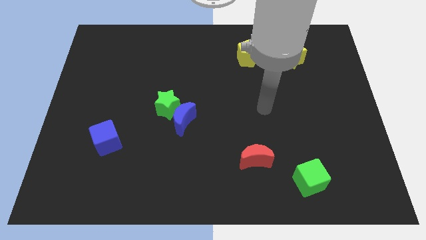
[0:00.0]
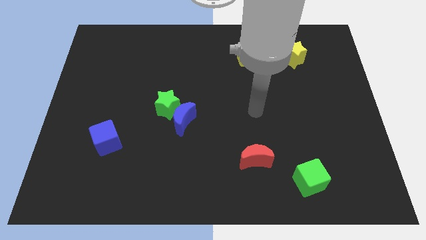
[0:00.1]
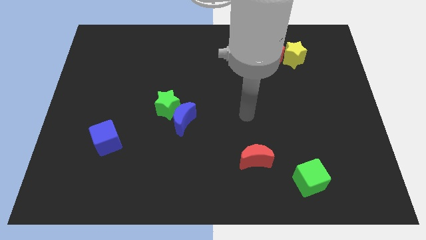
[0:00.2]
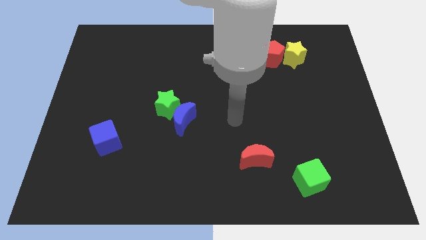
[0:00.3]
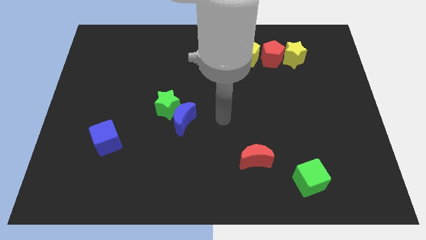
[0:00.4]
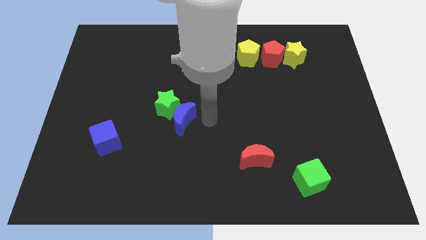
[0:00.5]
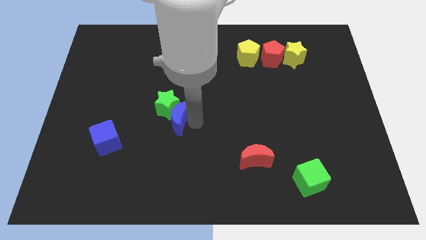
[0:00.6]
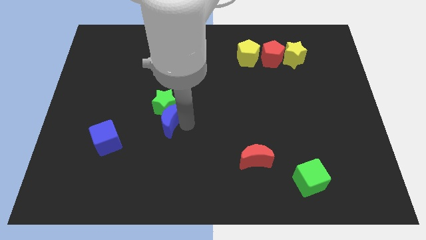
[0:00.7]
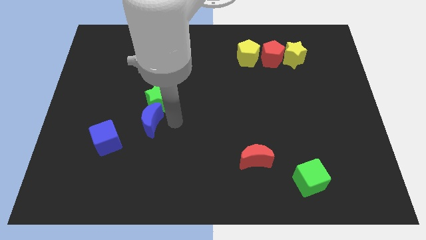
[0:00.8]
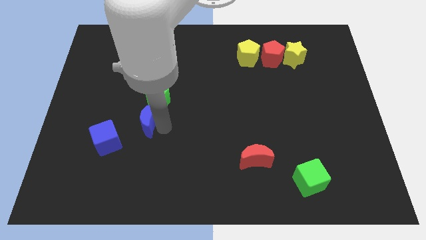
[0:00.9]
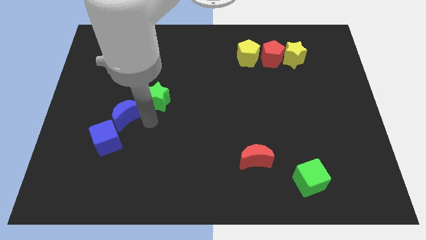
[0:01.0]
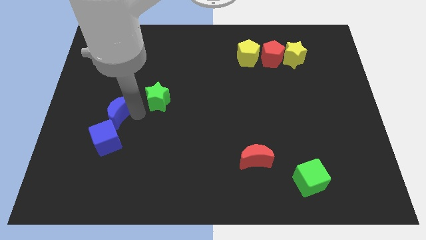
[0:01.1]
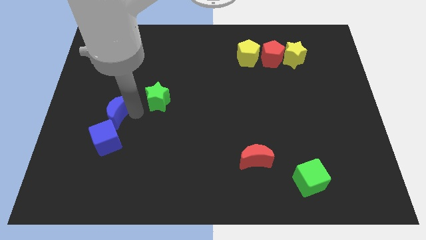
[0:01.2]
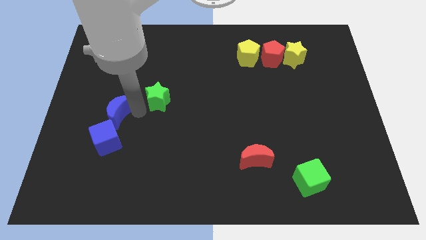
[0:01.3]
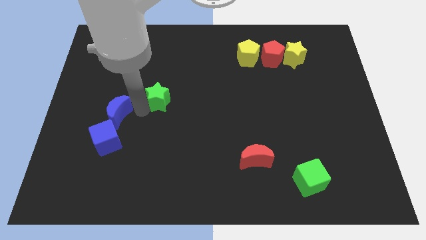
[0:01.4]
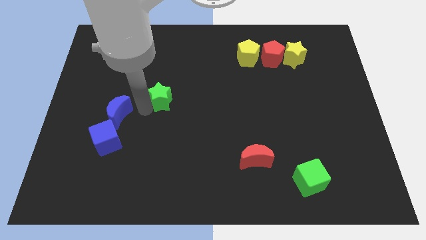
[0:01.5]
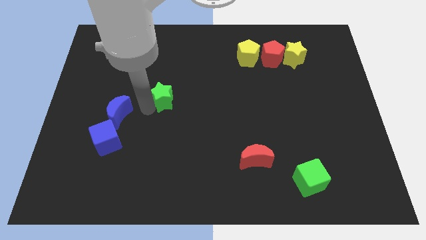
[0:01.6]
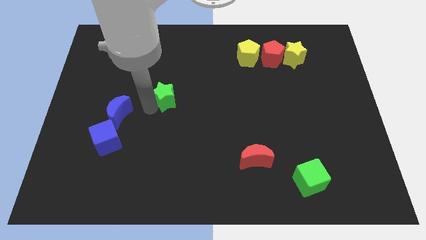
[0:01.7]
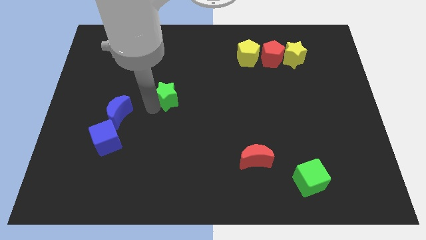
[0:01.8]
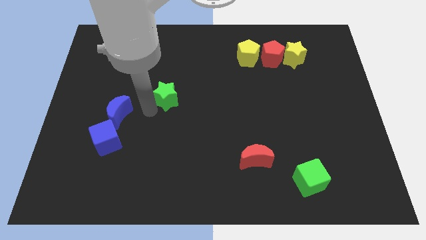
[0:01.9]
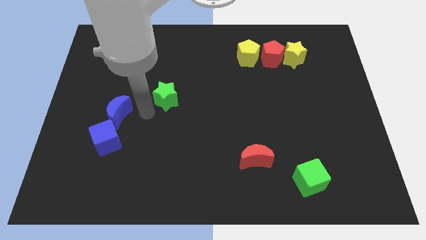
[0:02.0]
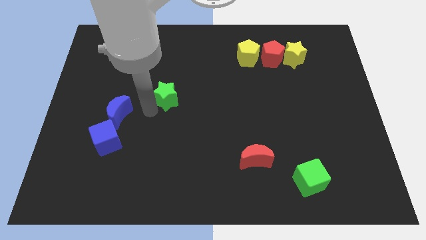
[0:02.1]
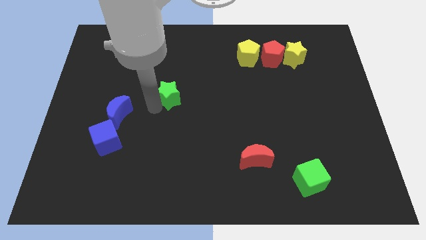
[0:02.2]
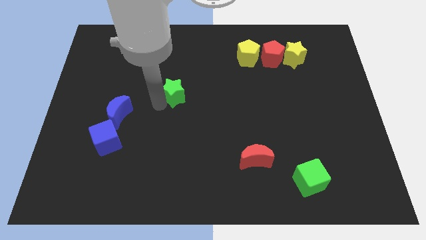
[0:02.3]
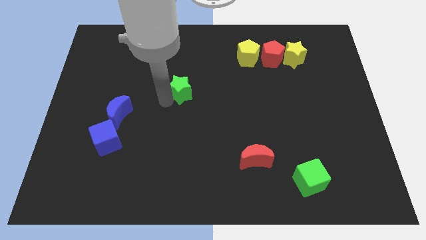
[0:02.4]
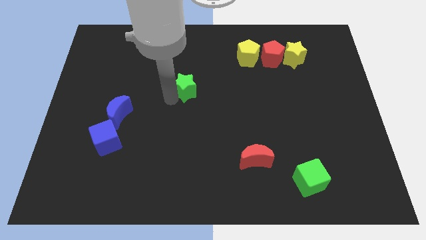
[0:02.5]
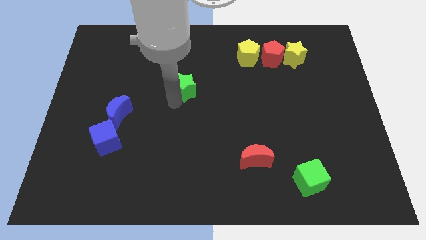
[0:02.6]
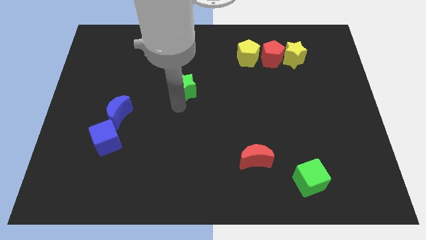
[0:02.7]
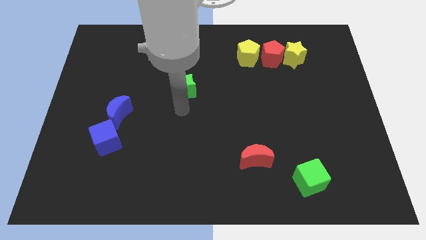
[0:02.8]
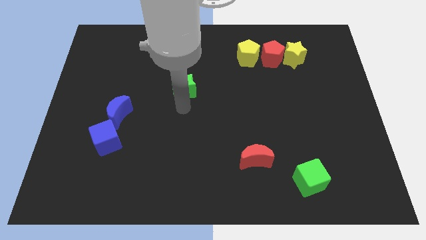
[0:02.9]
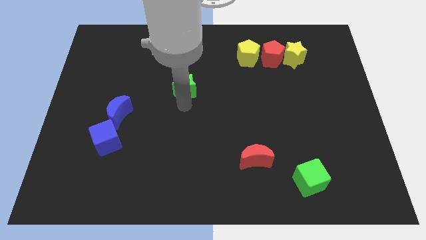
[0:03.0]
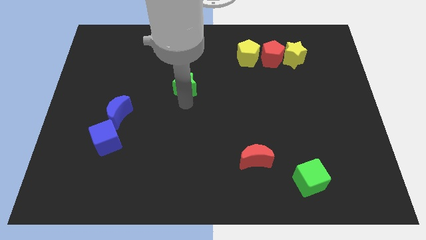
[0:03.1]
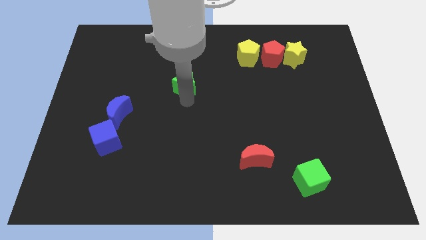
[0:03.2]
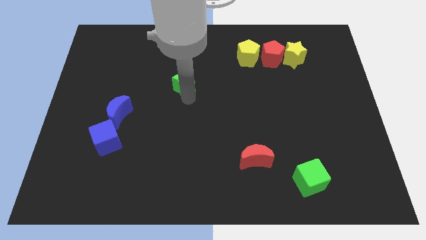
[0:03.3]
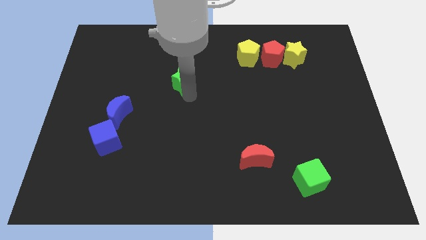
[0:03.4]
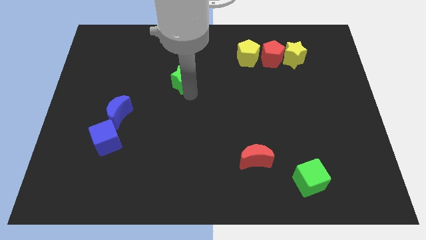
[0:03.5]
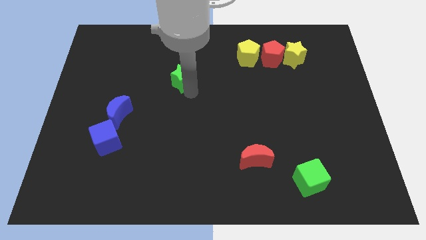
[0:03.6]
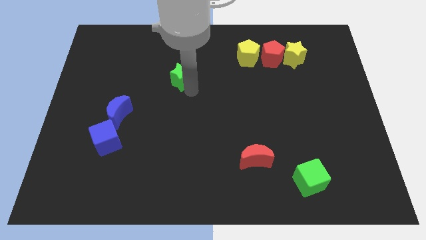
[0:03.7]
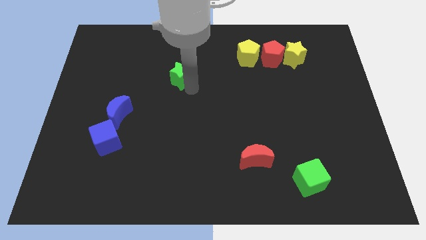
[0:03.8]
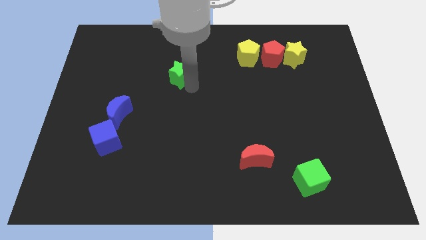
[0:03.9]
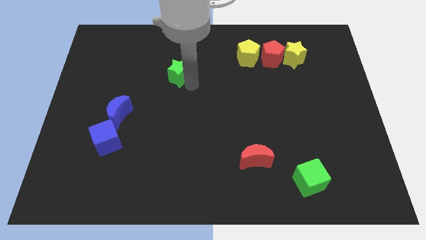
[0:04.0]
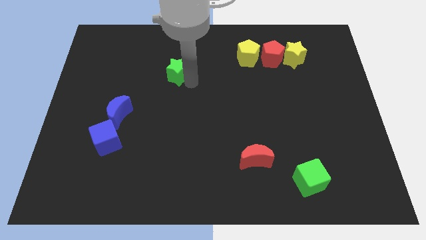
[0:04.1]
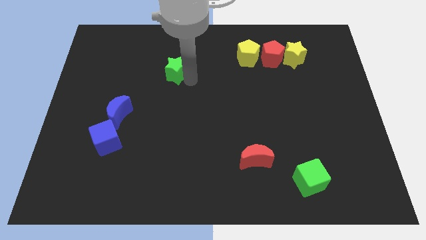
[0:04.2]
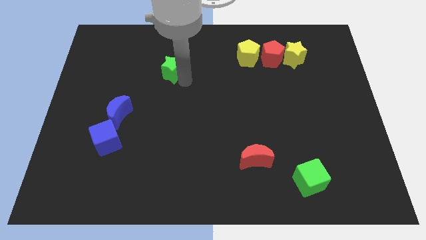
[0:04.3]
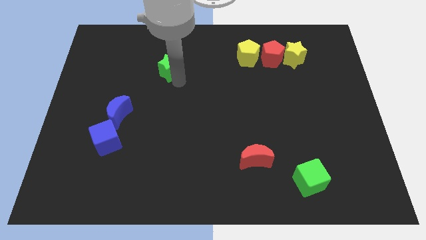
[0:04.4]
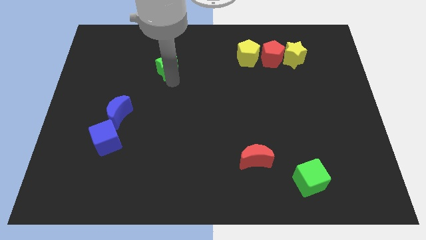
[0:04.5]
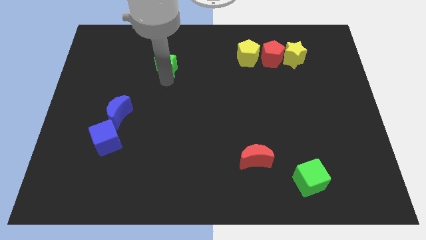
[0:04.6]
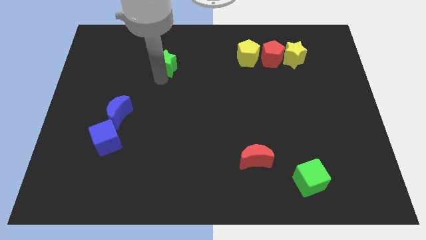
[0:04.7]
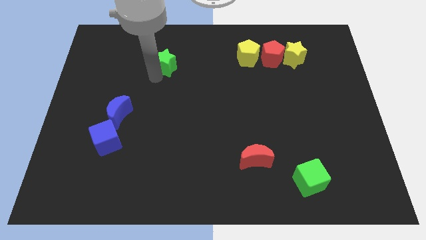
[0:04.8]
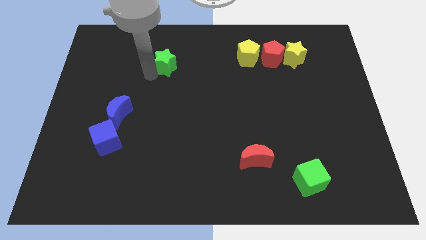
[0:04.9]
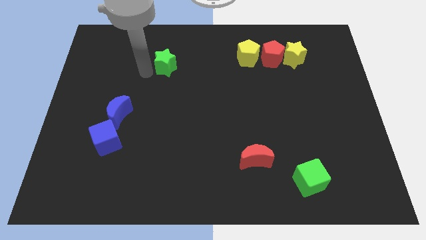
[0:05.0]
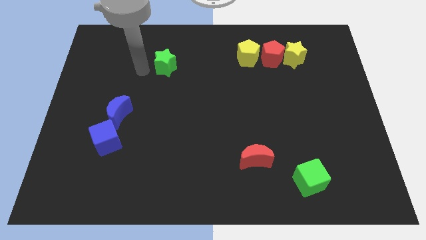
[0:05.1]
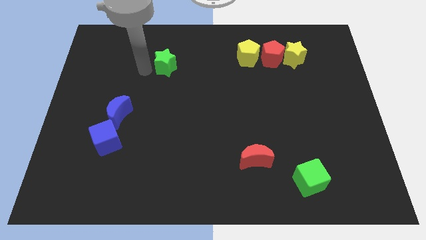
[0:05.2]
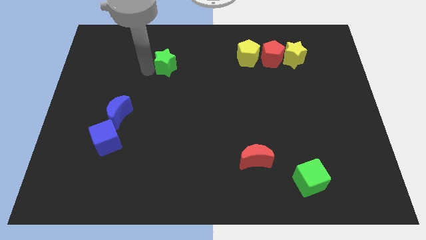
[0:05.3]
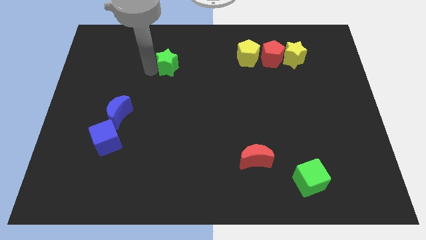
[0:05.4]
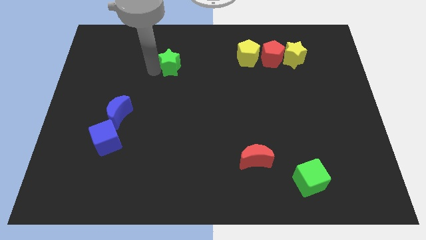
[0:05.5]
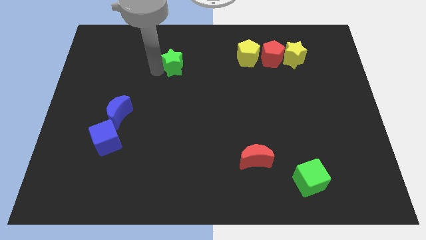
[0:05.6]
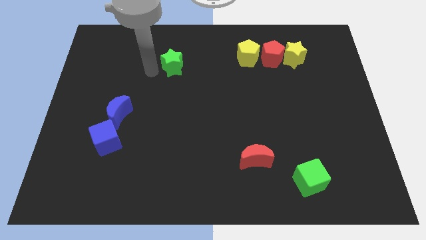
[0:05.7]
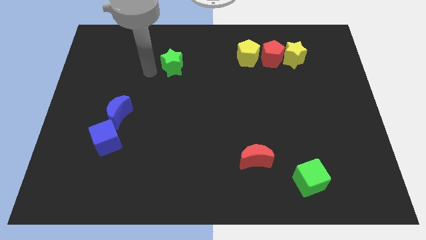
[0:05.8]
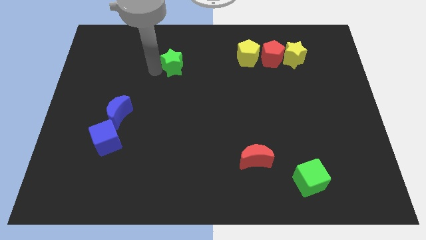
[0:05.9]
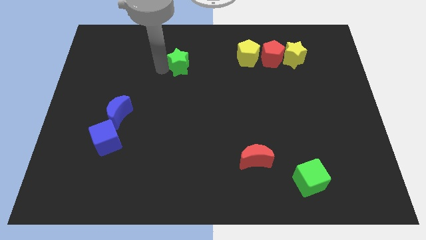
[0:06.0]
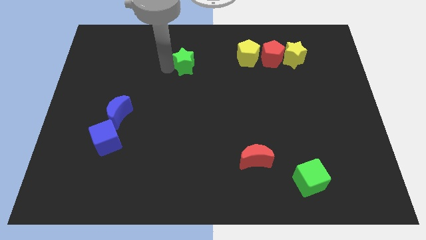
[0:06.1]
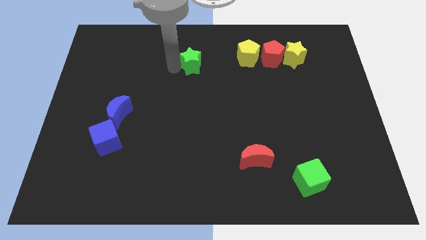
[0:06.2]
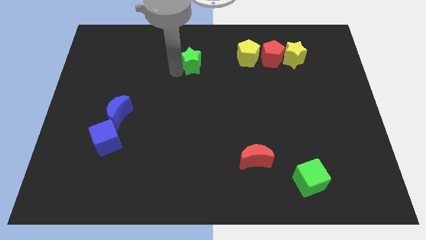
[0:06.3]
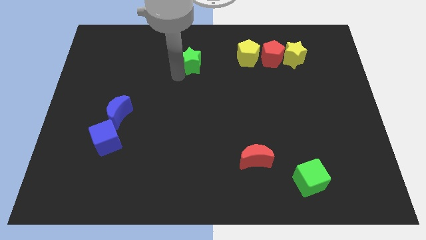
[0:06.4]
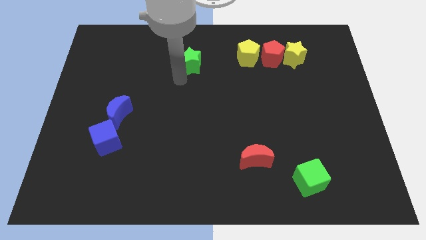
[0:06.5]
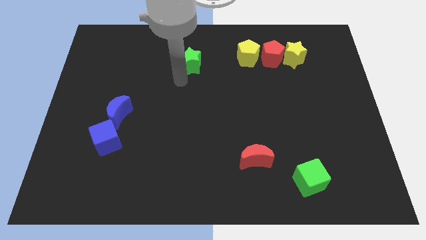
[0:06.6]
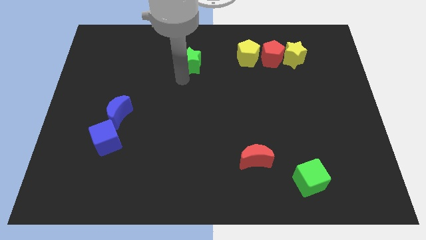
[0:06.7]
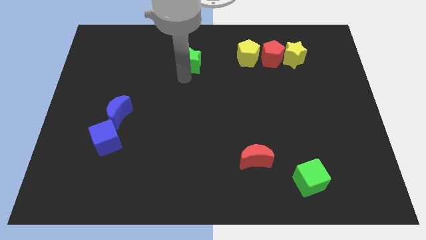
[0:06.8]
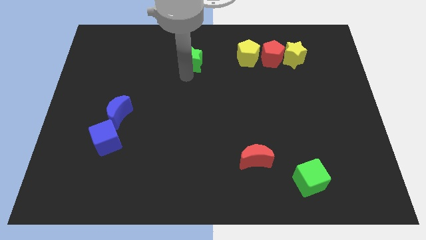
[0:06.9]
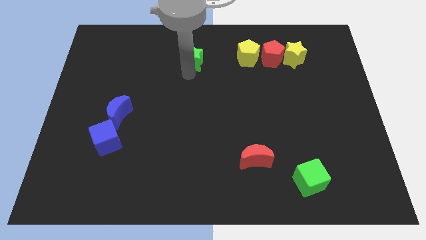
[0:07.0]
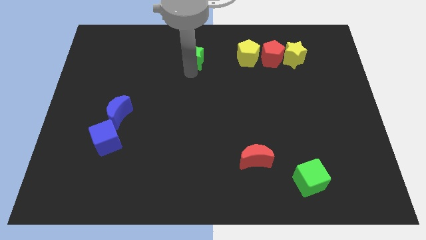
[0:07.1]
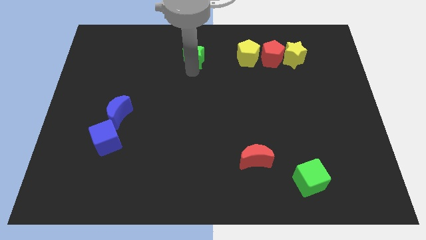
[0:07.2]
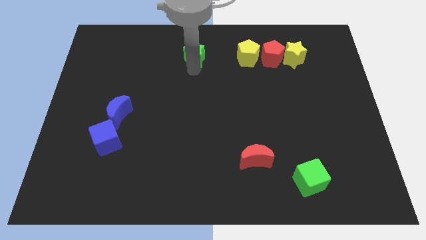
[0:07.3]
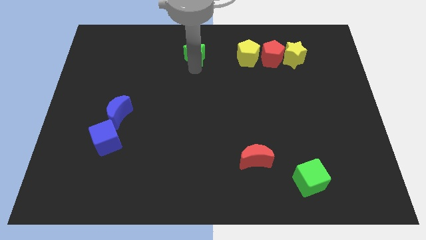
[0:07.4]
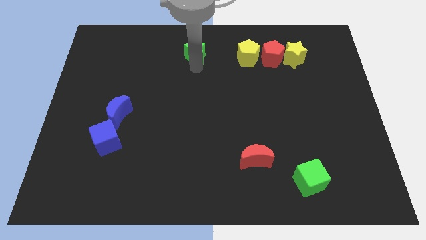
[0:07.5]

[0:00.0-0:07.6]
push the green star to the towards your base
